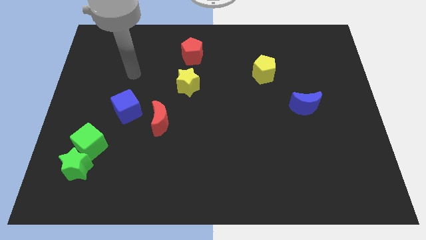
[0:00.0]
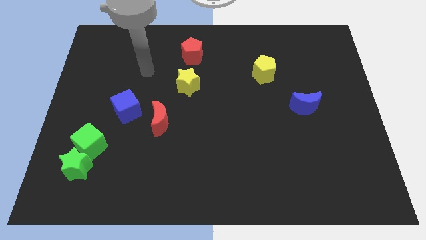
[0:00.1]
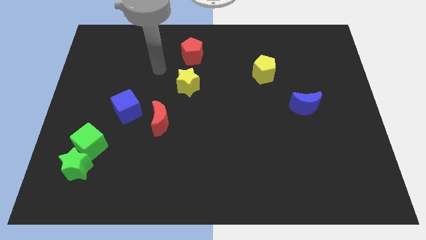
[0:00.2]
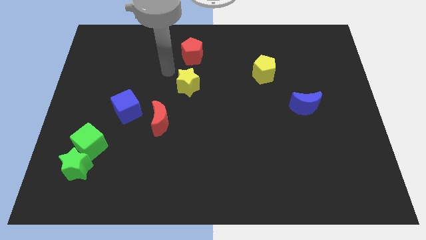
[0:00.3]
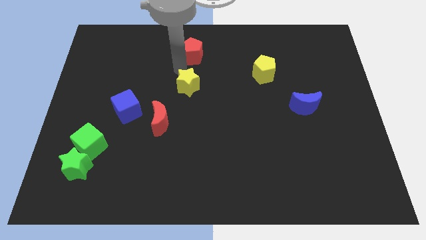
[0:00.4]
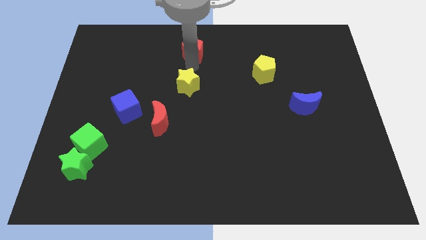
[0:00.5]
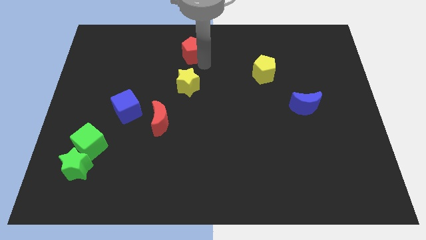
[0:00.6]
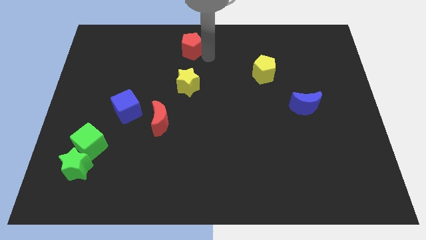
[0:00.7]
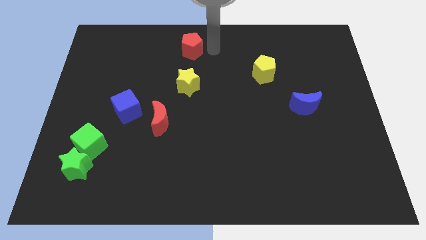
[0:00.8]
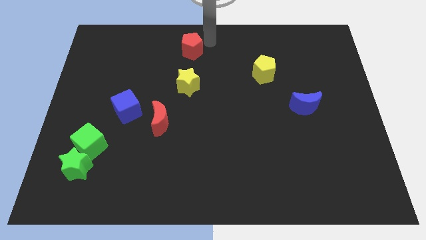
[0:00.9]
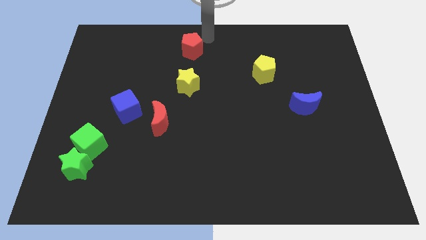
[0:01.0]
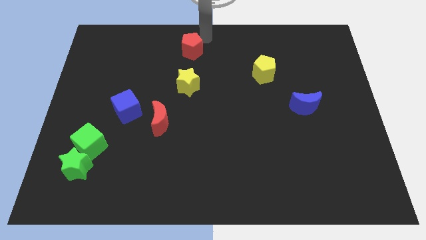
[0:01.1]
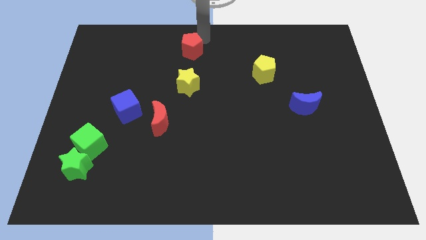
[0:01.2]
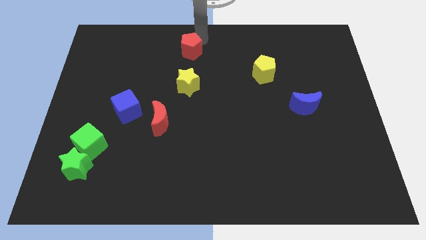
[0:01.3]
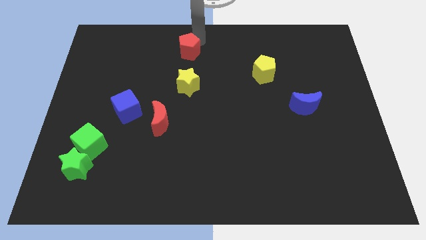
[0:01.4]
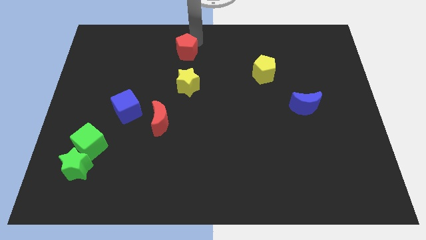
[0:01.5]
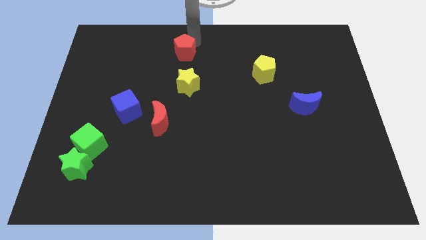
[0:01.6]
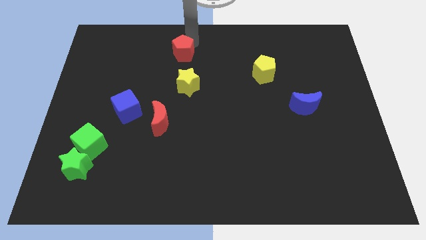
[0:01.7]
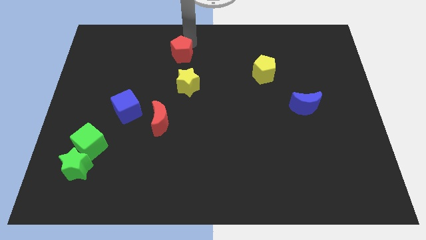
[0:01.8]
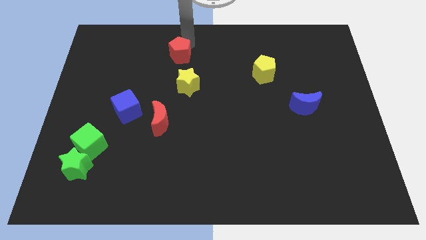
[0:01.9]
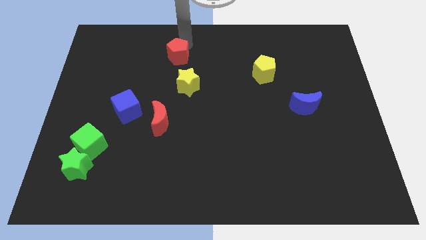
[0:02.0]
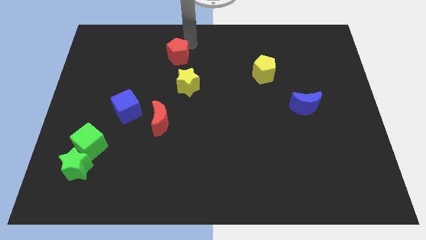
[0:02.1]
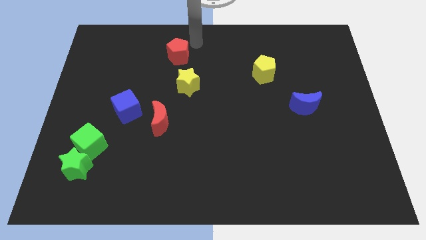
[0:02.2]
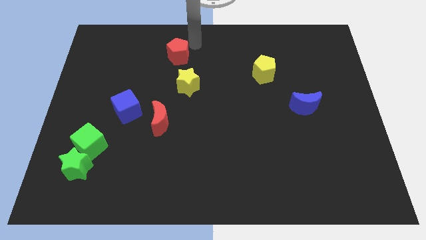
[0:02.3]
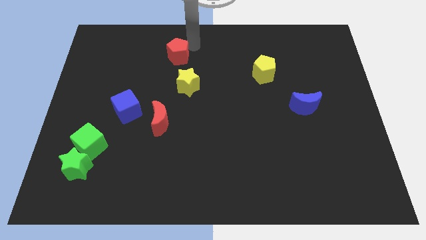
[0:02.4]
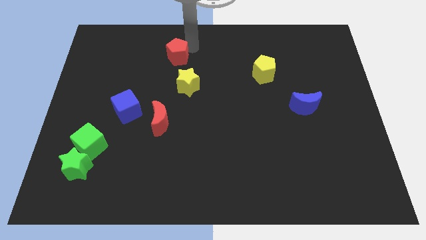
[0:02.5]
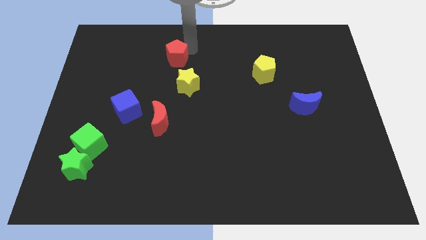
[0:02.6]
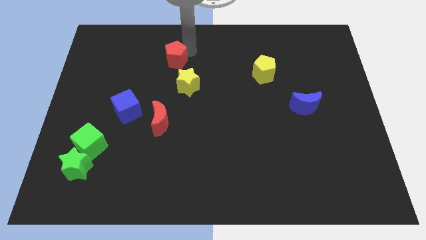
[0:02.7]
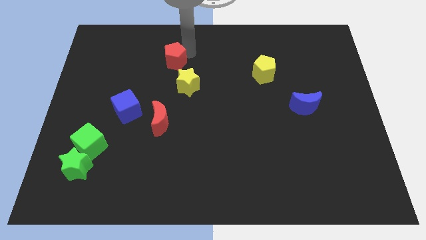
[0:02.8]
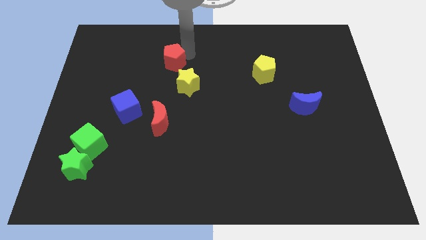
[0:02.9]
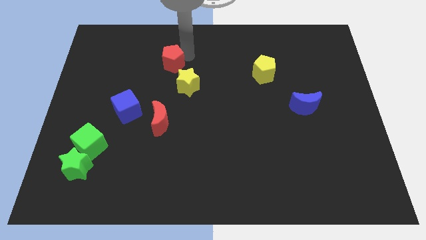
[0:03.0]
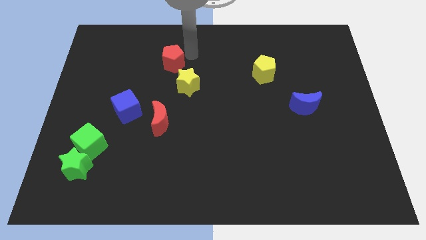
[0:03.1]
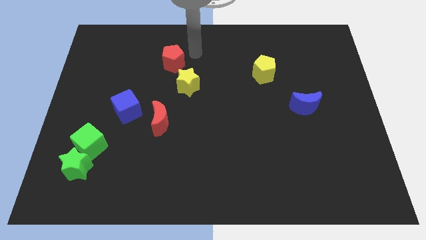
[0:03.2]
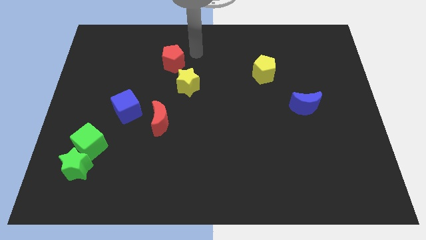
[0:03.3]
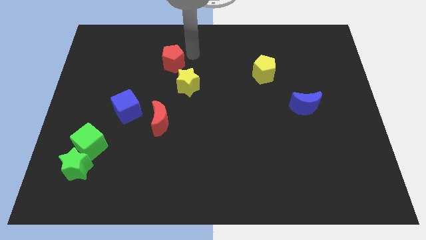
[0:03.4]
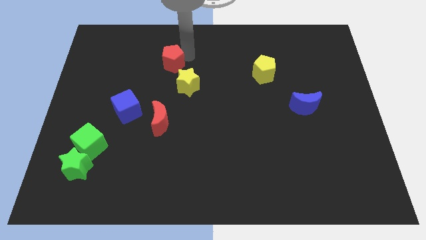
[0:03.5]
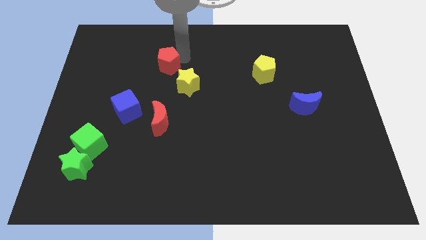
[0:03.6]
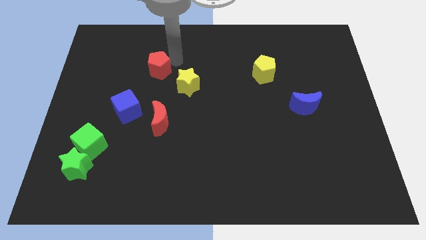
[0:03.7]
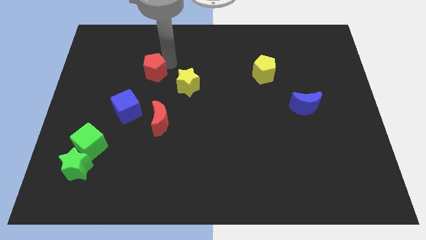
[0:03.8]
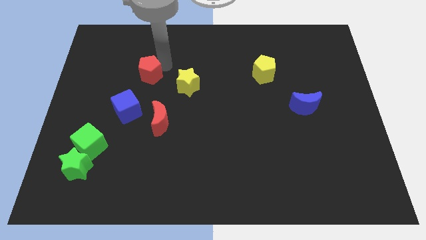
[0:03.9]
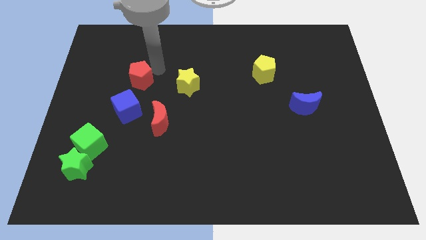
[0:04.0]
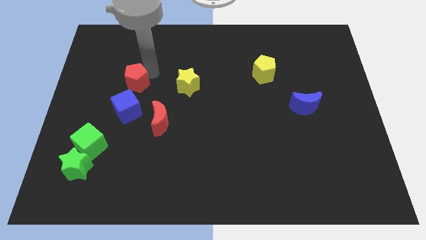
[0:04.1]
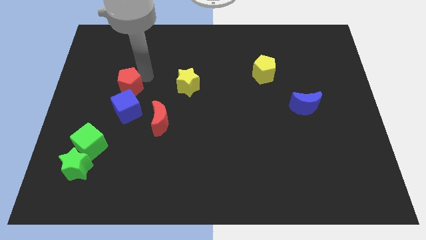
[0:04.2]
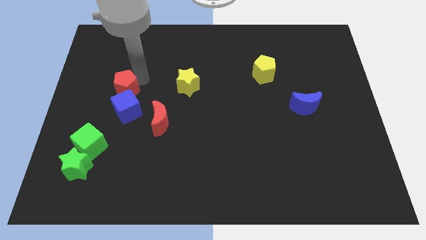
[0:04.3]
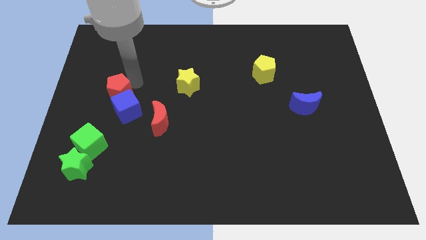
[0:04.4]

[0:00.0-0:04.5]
slide the red pentagon downwards and then to the left

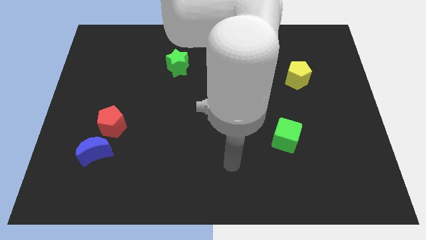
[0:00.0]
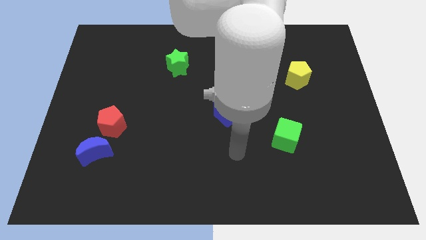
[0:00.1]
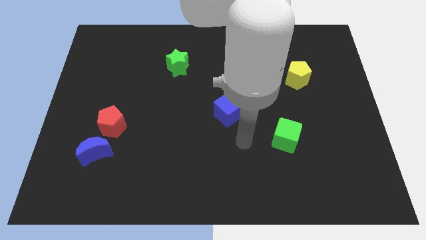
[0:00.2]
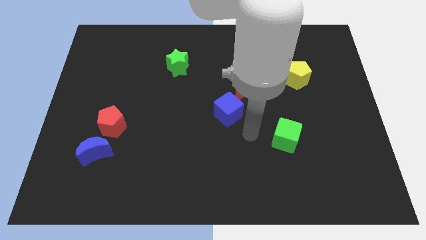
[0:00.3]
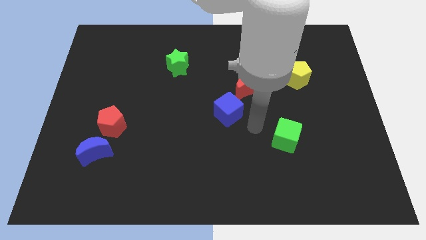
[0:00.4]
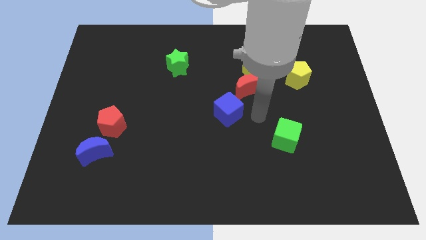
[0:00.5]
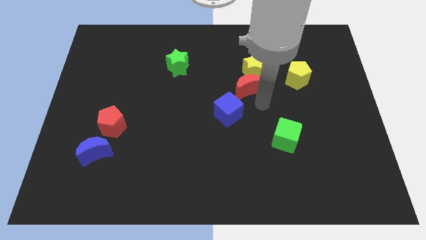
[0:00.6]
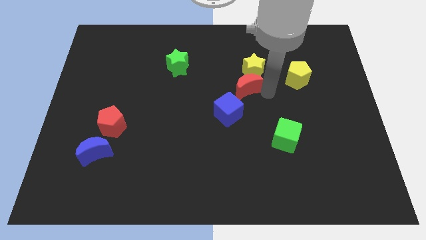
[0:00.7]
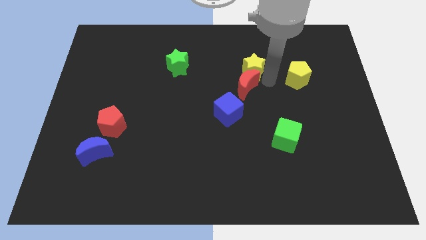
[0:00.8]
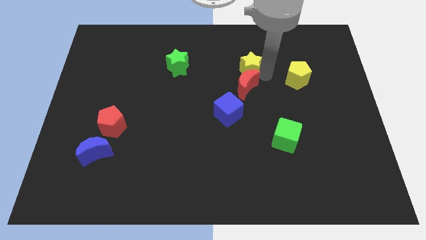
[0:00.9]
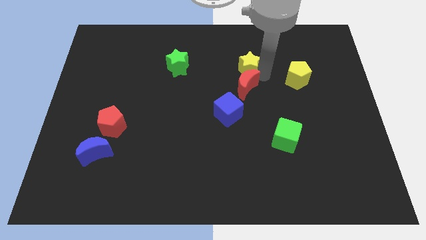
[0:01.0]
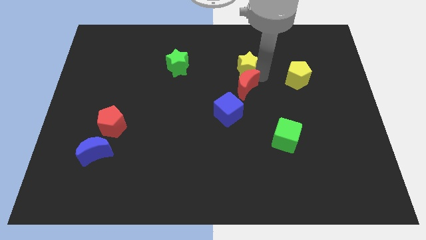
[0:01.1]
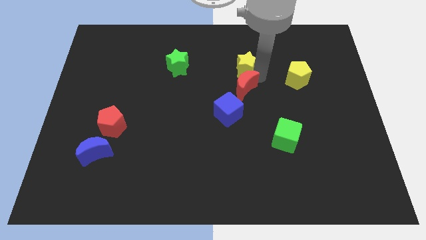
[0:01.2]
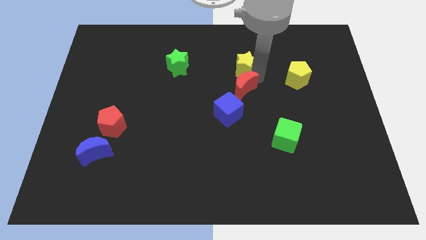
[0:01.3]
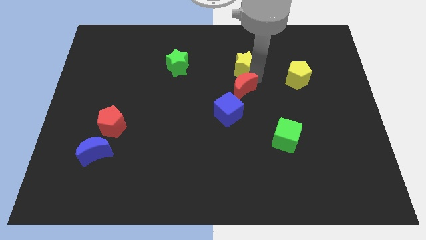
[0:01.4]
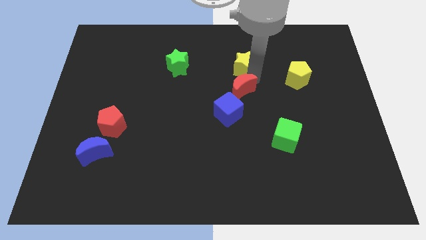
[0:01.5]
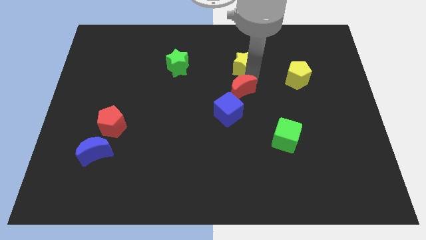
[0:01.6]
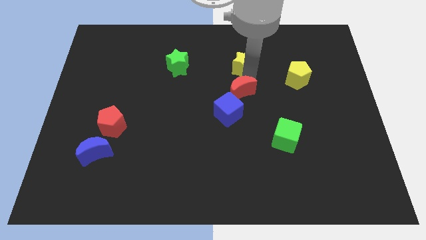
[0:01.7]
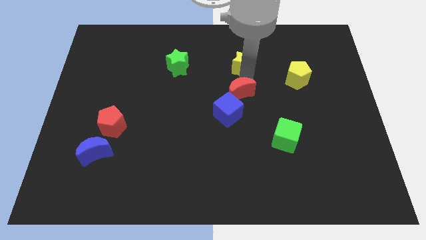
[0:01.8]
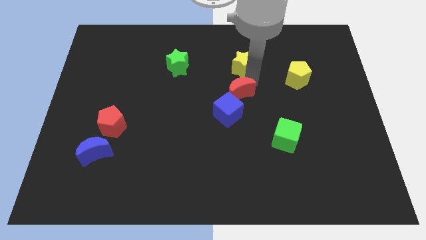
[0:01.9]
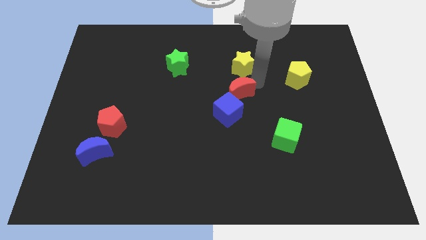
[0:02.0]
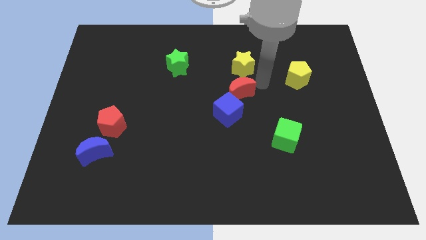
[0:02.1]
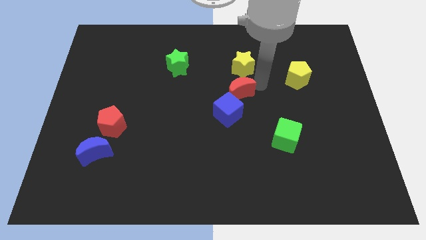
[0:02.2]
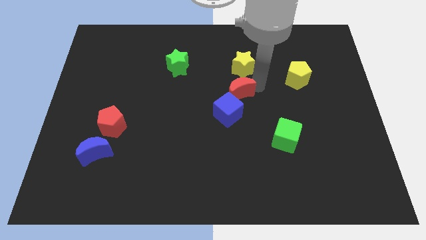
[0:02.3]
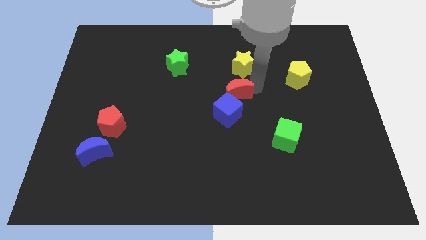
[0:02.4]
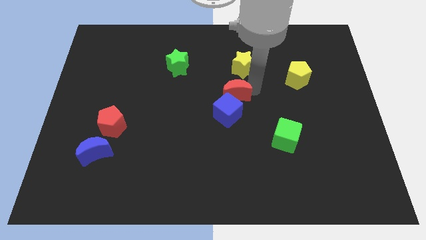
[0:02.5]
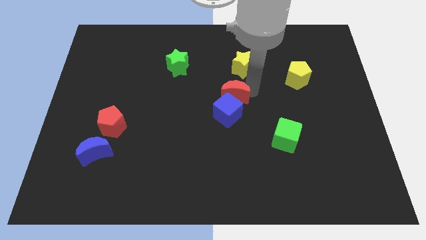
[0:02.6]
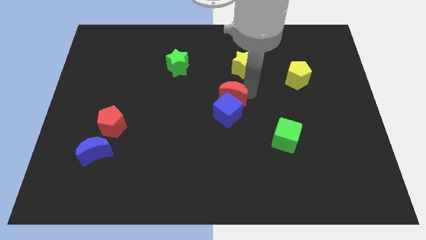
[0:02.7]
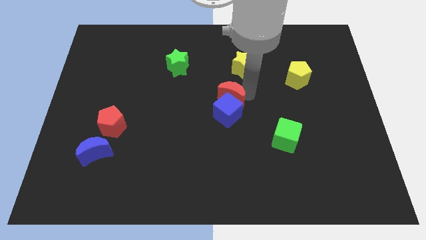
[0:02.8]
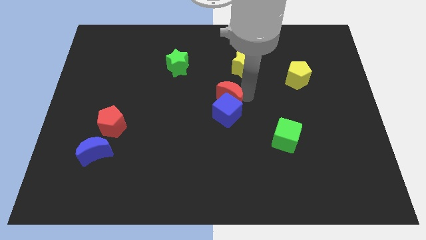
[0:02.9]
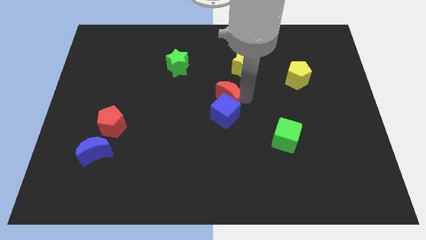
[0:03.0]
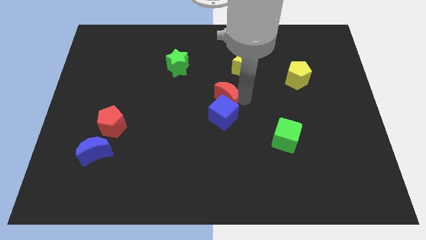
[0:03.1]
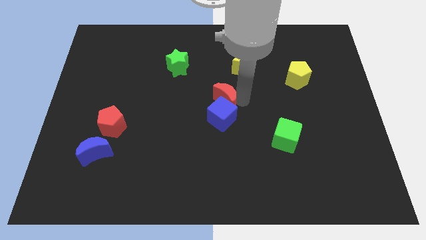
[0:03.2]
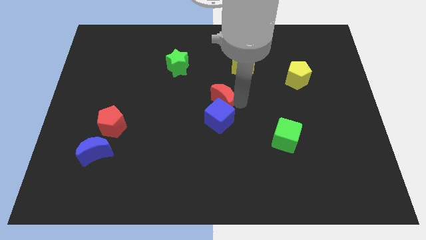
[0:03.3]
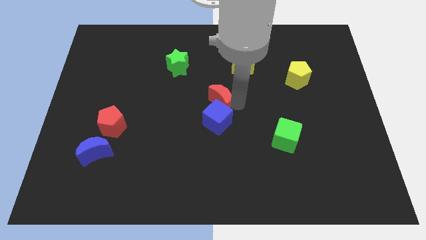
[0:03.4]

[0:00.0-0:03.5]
slightly slide the red moon diagonally down and to the left

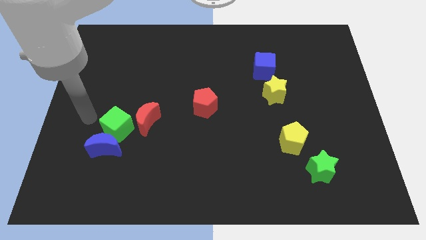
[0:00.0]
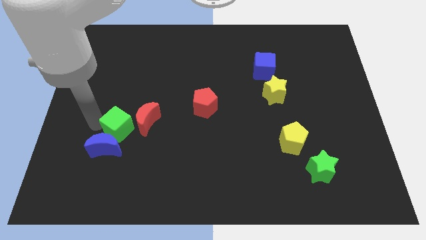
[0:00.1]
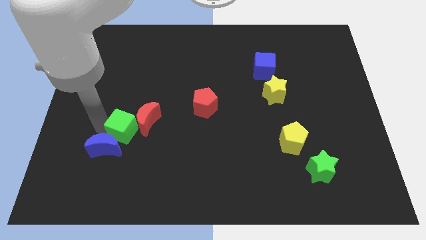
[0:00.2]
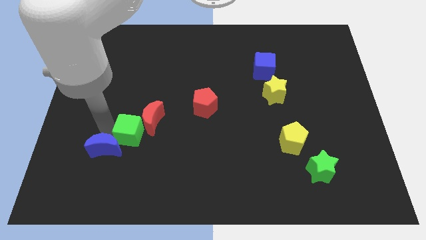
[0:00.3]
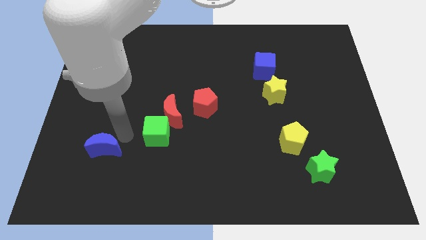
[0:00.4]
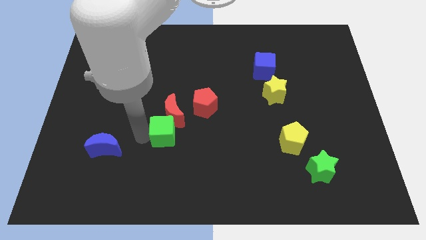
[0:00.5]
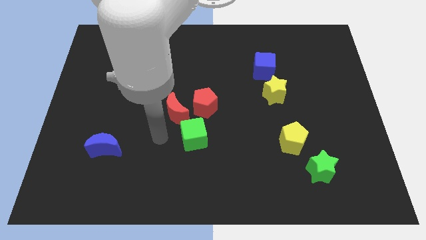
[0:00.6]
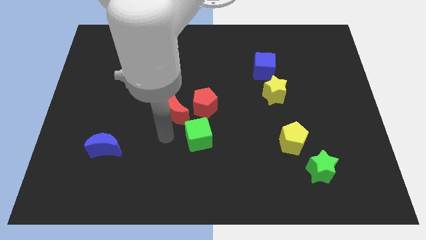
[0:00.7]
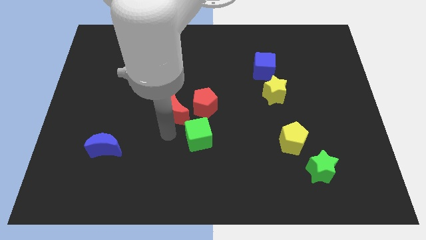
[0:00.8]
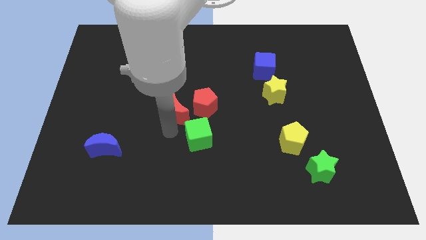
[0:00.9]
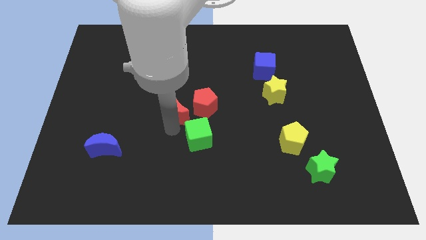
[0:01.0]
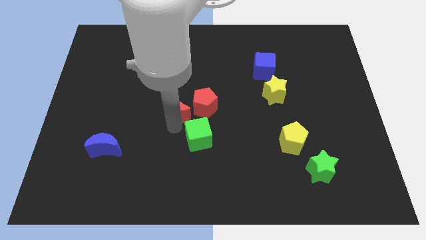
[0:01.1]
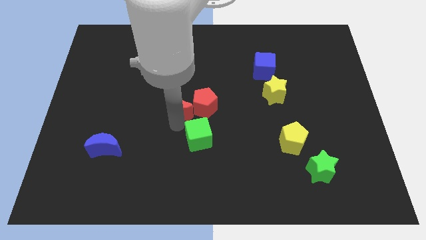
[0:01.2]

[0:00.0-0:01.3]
slide the red moon somewhat up and right diagonally
